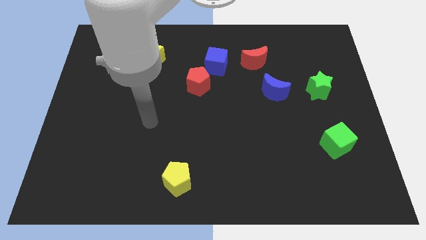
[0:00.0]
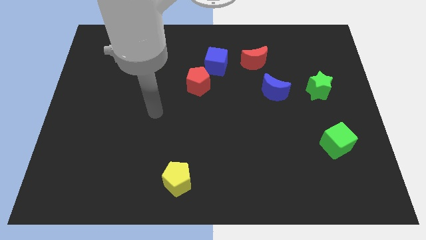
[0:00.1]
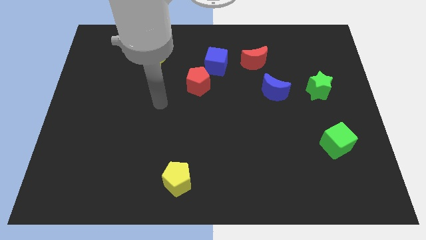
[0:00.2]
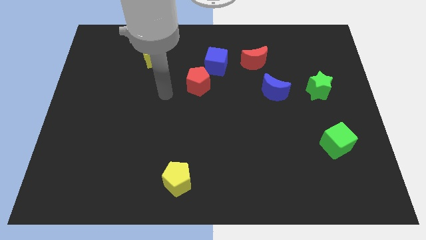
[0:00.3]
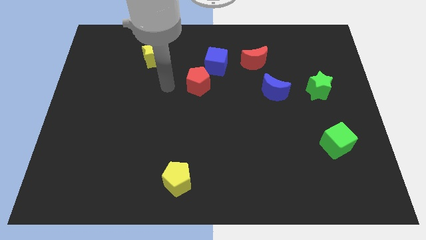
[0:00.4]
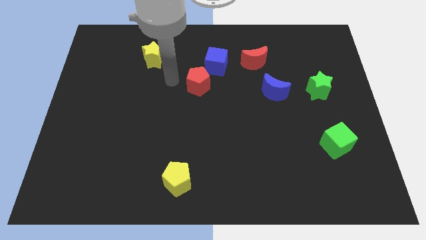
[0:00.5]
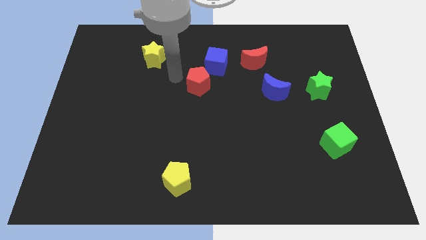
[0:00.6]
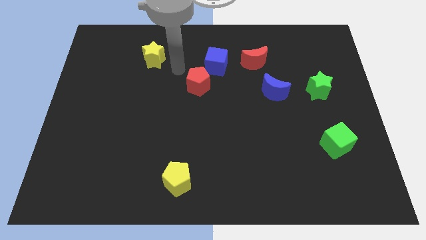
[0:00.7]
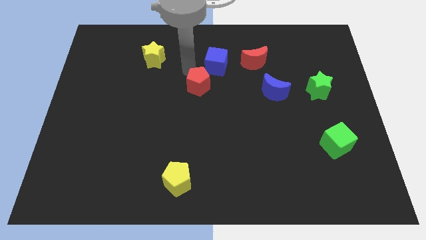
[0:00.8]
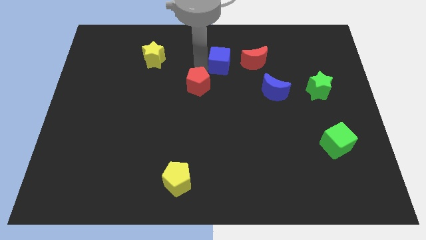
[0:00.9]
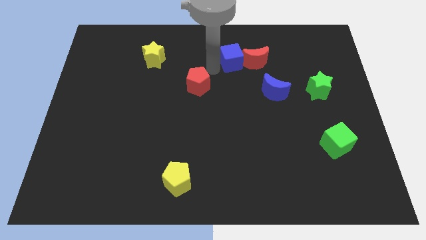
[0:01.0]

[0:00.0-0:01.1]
separate the red pentagon from the blue cube

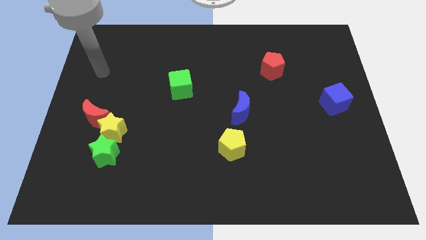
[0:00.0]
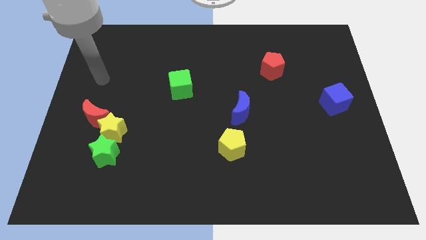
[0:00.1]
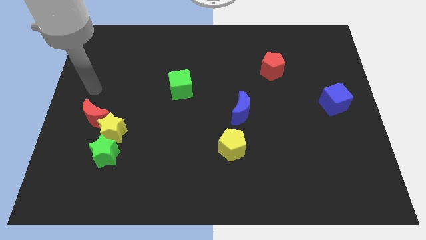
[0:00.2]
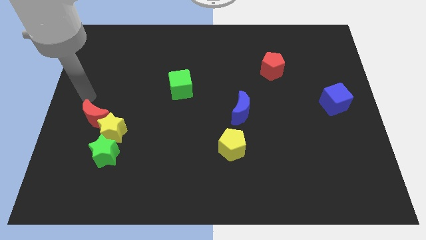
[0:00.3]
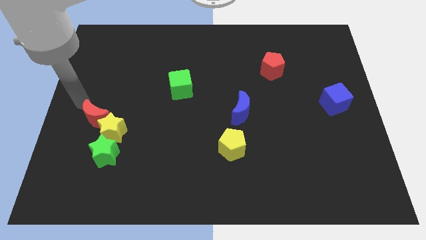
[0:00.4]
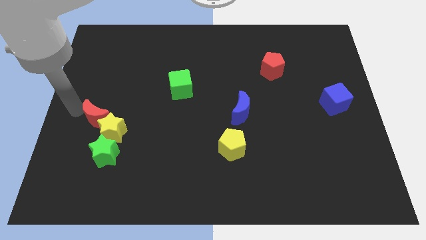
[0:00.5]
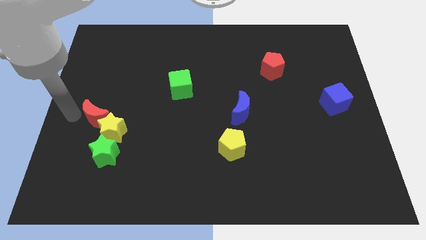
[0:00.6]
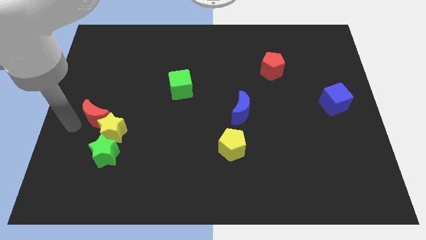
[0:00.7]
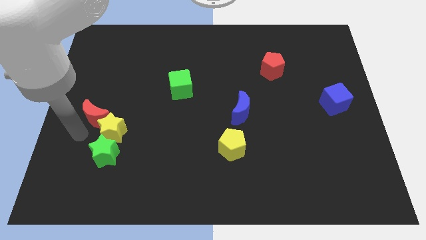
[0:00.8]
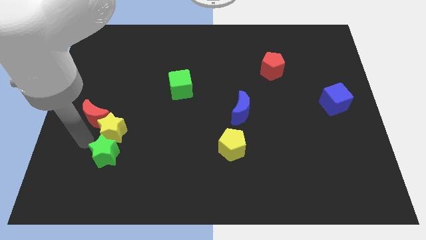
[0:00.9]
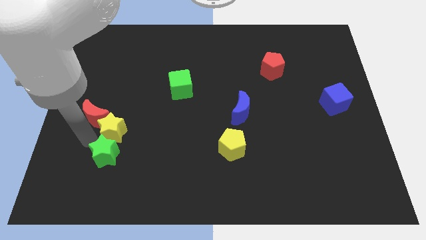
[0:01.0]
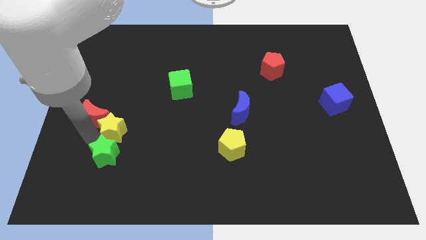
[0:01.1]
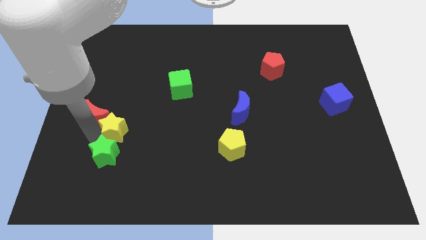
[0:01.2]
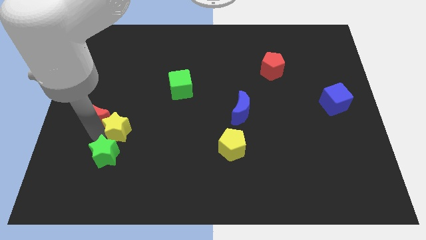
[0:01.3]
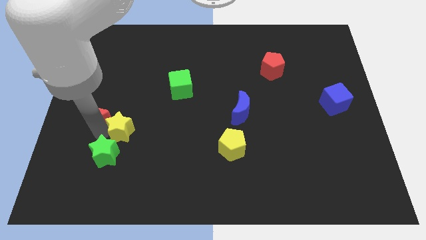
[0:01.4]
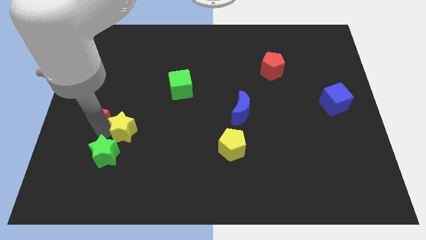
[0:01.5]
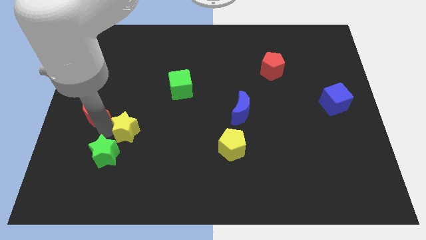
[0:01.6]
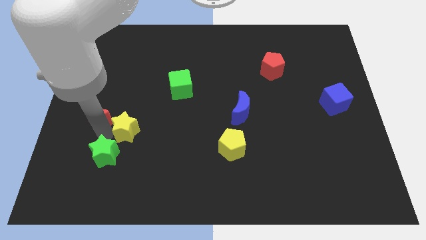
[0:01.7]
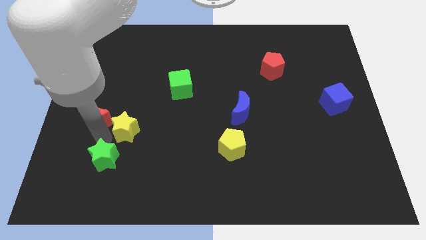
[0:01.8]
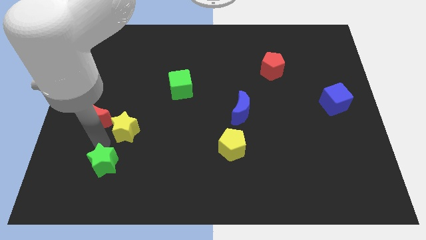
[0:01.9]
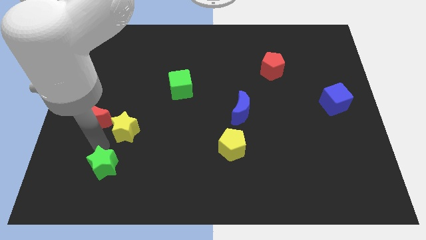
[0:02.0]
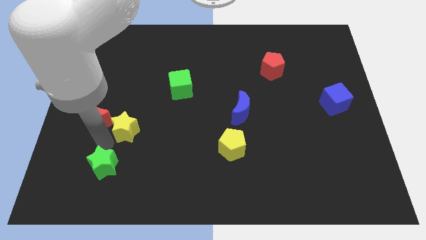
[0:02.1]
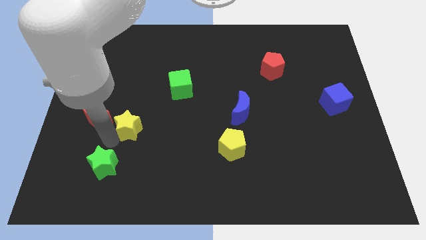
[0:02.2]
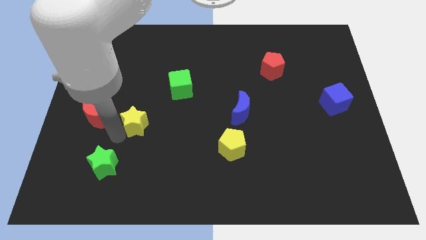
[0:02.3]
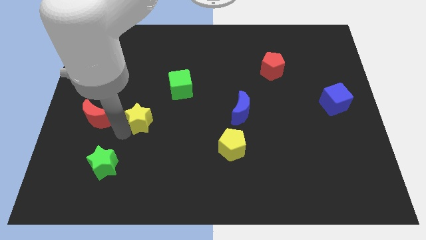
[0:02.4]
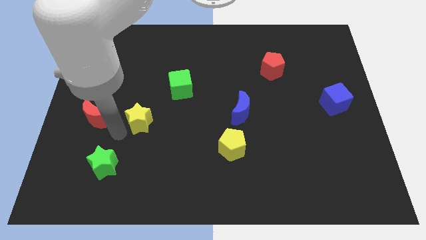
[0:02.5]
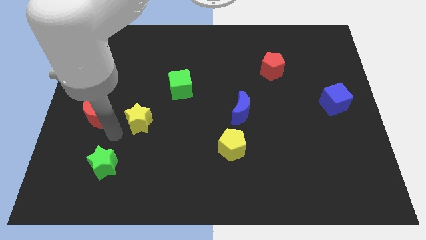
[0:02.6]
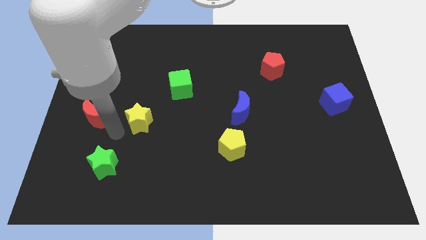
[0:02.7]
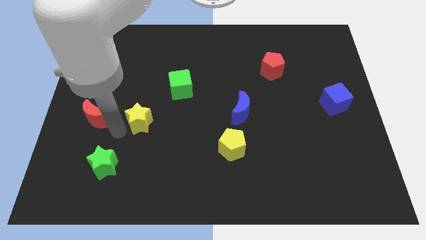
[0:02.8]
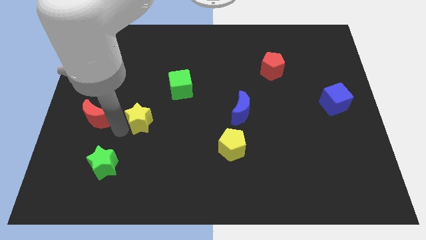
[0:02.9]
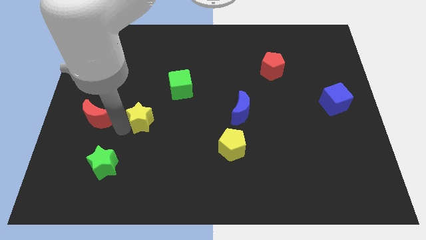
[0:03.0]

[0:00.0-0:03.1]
move the yellow star away from the green star and red moon

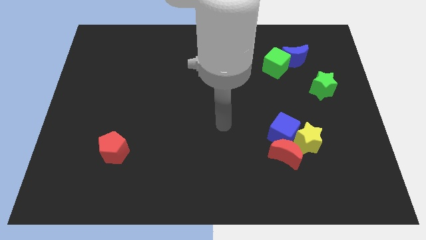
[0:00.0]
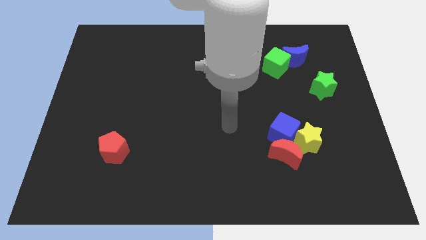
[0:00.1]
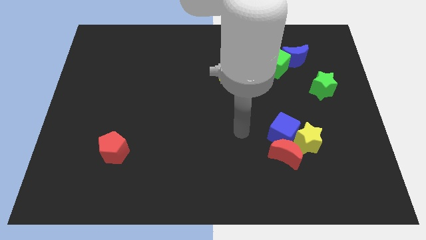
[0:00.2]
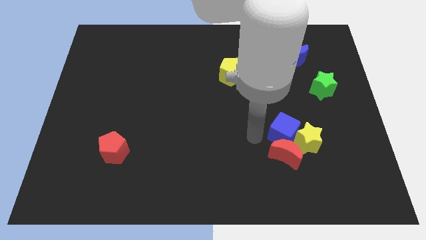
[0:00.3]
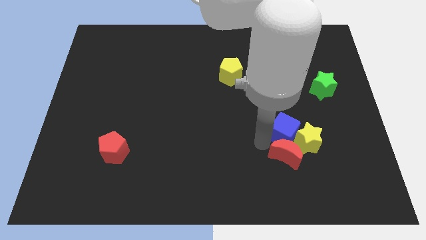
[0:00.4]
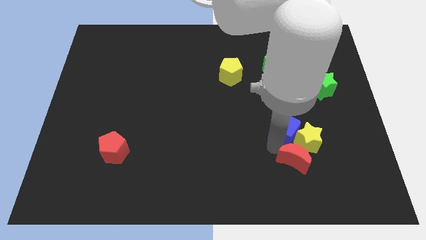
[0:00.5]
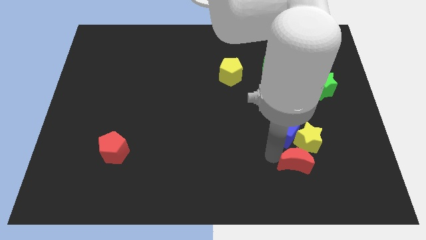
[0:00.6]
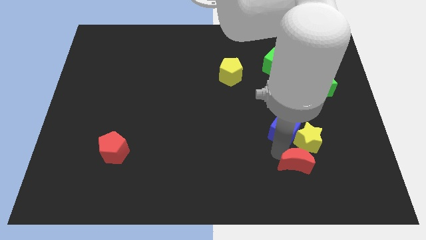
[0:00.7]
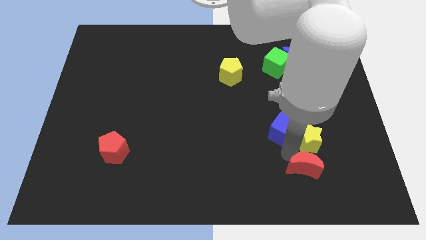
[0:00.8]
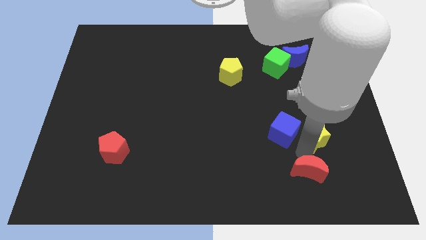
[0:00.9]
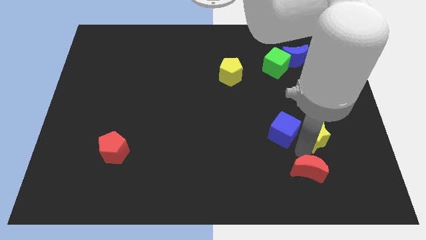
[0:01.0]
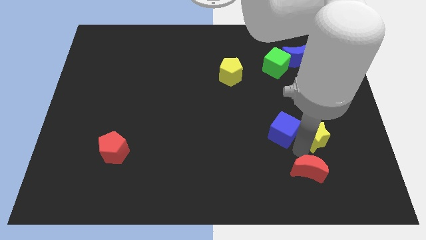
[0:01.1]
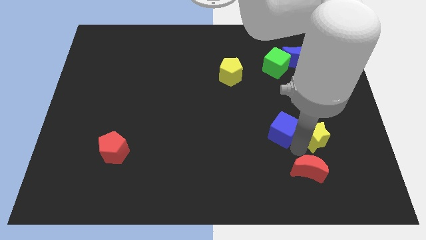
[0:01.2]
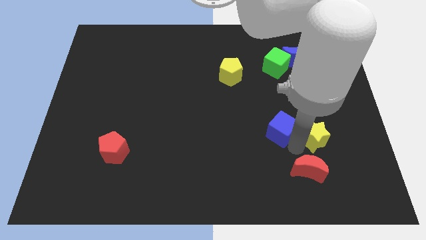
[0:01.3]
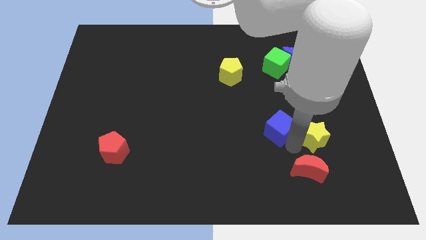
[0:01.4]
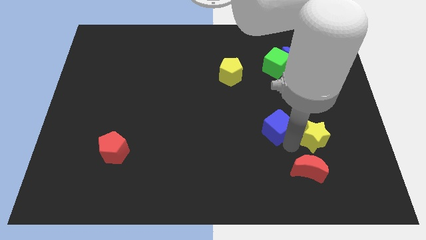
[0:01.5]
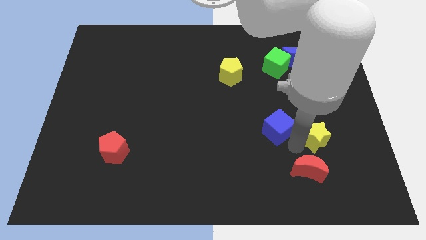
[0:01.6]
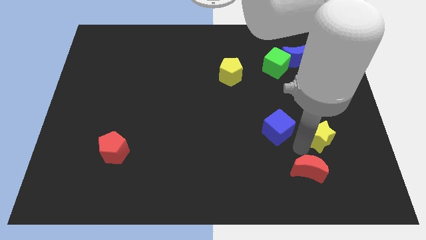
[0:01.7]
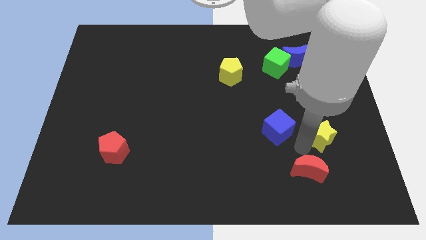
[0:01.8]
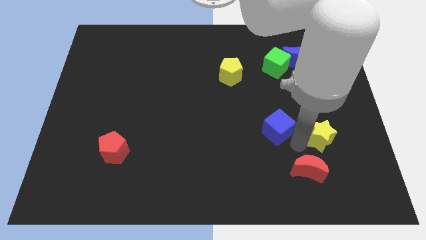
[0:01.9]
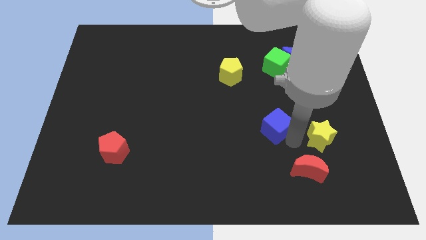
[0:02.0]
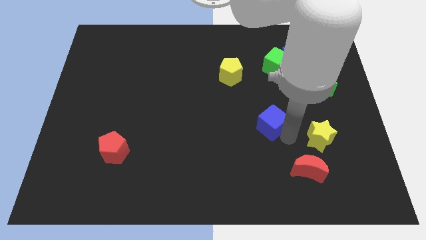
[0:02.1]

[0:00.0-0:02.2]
pull the blue cube apart from the yellow star and red moon

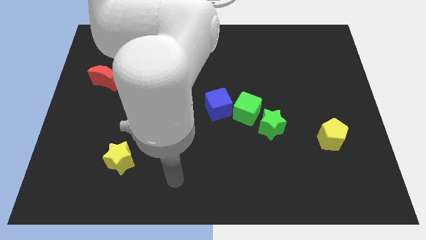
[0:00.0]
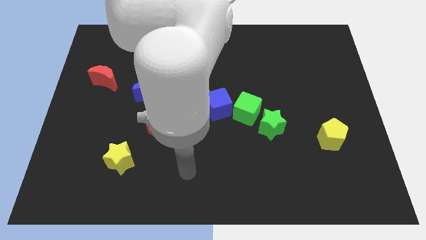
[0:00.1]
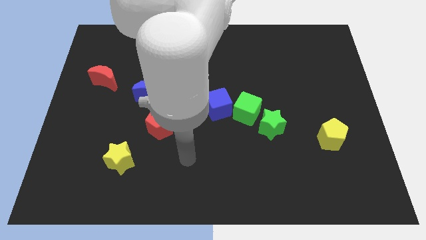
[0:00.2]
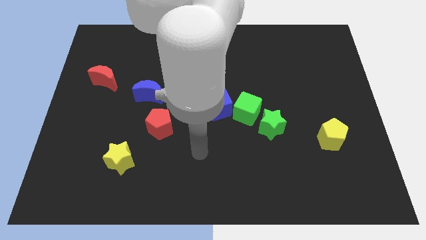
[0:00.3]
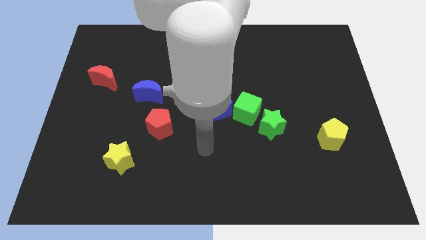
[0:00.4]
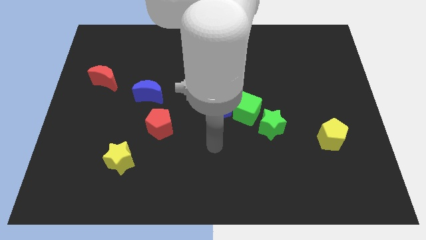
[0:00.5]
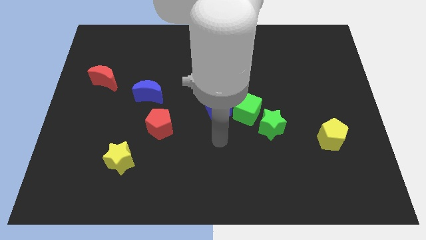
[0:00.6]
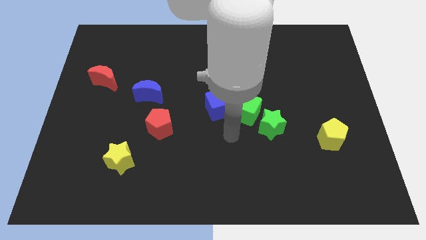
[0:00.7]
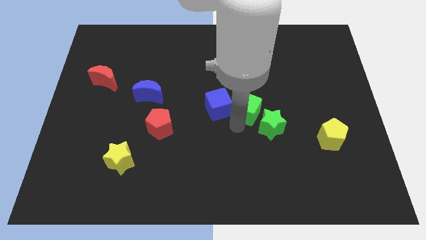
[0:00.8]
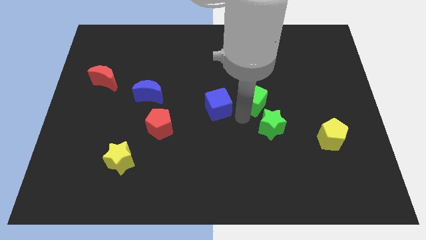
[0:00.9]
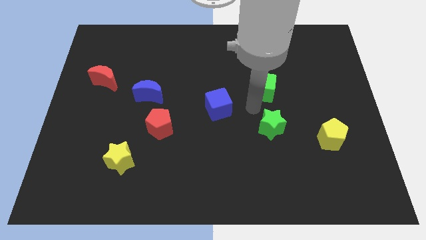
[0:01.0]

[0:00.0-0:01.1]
separate the green star from the green cube

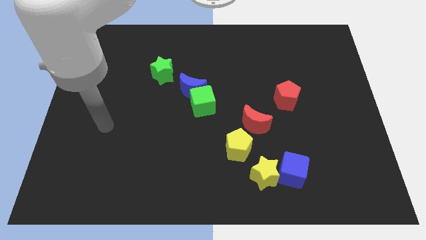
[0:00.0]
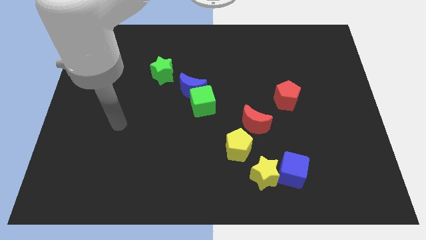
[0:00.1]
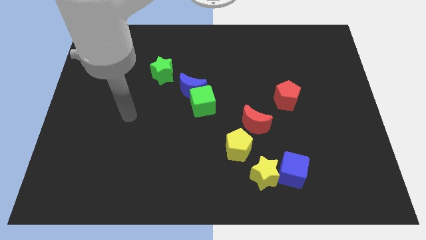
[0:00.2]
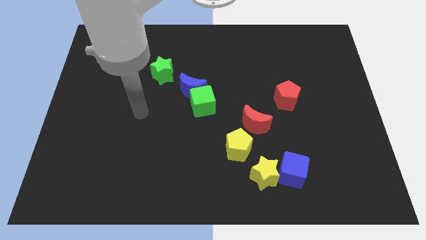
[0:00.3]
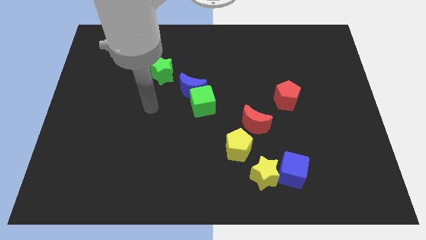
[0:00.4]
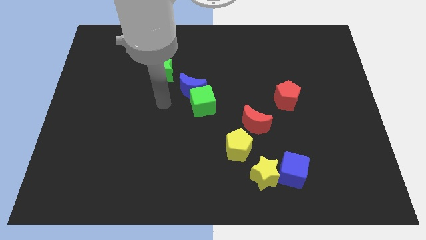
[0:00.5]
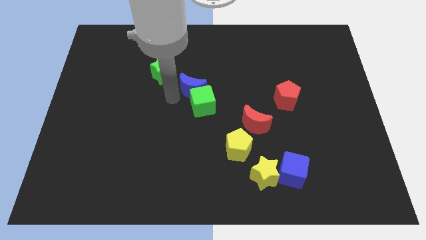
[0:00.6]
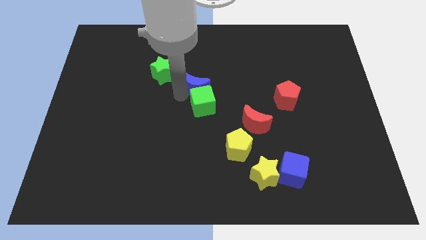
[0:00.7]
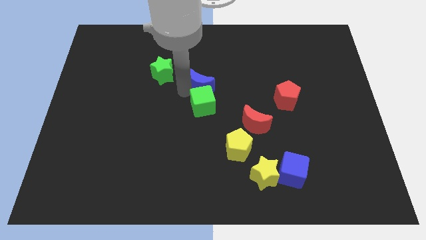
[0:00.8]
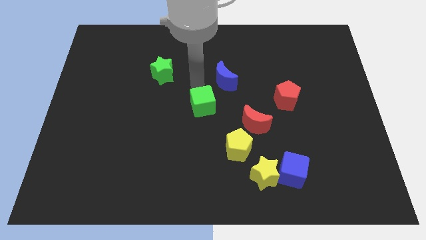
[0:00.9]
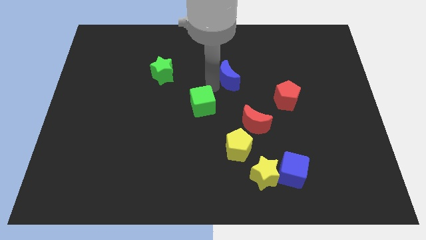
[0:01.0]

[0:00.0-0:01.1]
separate the green cube from the blue moon

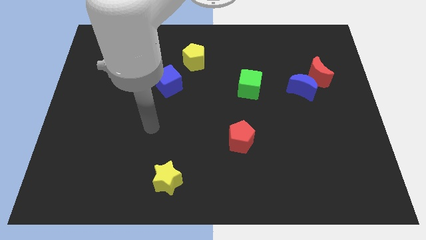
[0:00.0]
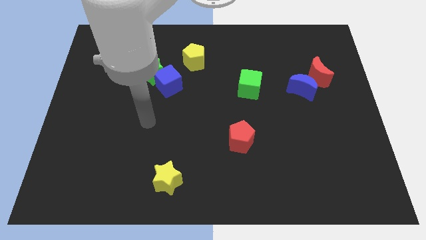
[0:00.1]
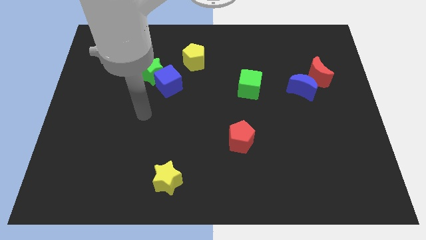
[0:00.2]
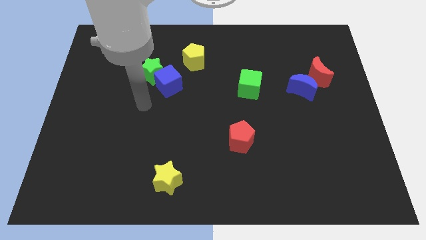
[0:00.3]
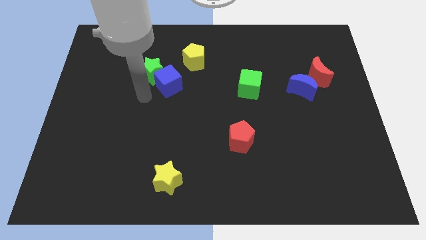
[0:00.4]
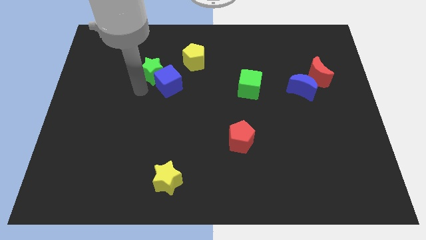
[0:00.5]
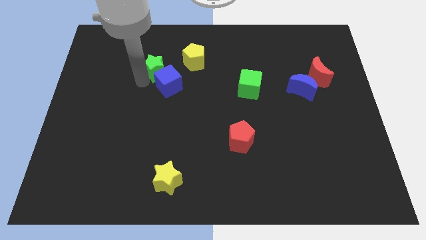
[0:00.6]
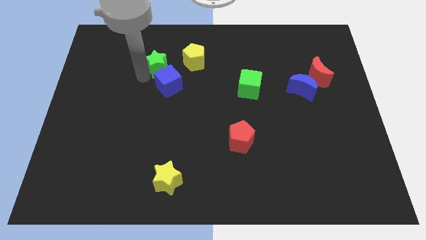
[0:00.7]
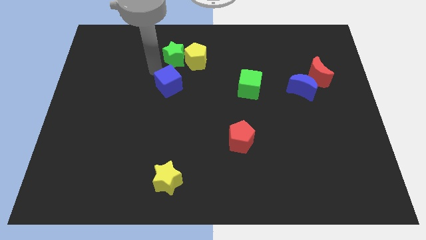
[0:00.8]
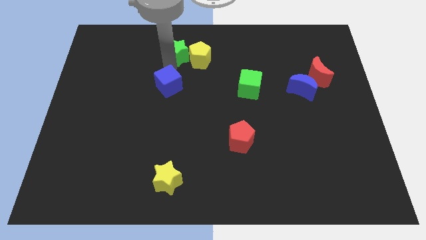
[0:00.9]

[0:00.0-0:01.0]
move the blue cube away from the green star
